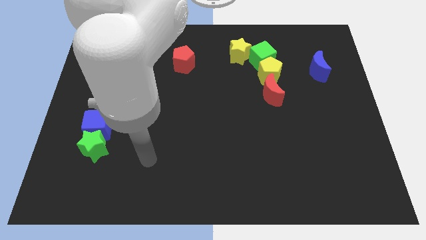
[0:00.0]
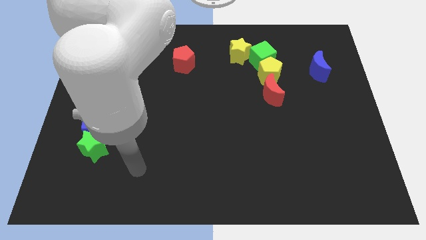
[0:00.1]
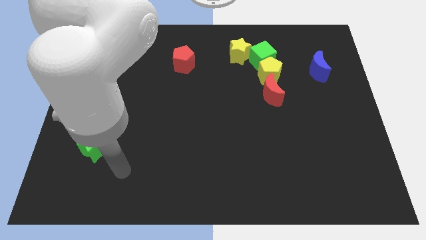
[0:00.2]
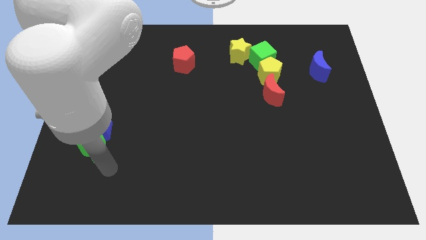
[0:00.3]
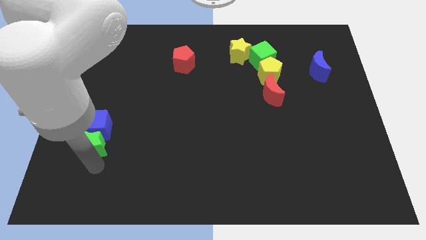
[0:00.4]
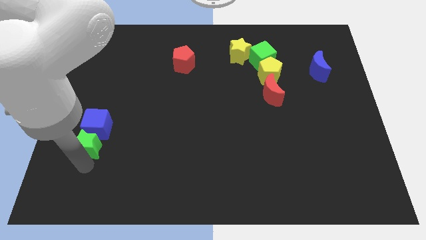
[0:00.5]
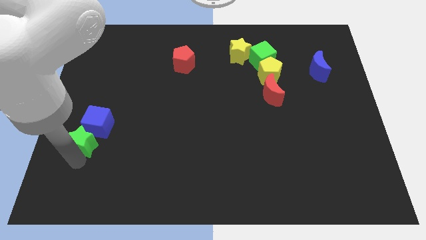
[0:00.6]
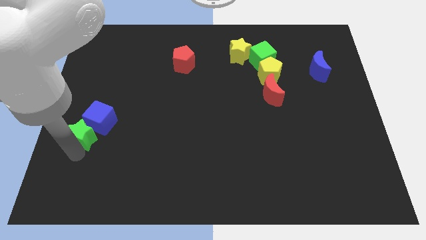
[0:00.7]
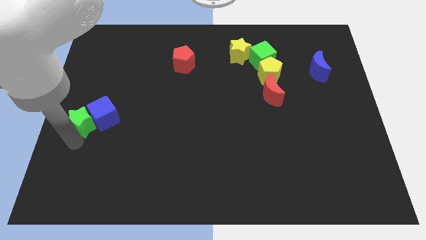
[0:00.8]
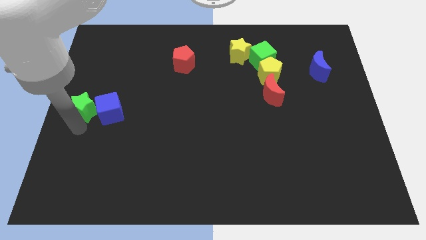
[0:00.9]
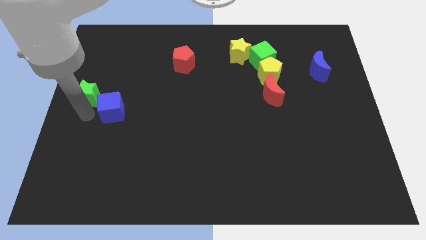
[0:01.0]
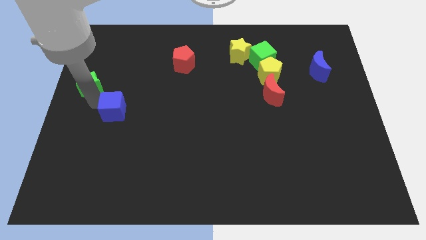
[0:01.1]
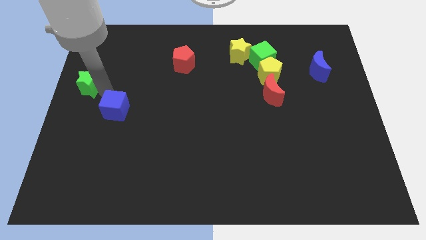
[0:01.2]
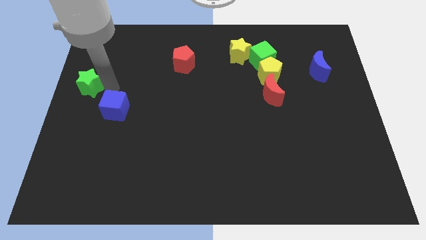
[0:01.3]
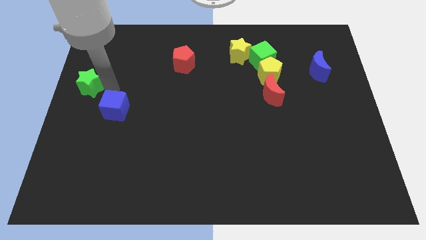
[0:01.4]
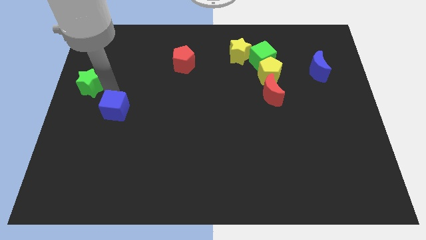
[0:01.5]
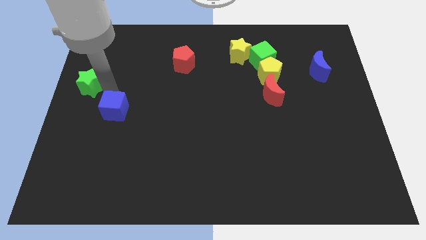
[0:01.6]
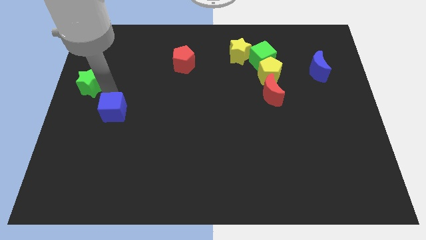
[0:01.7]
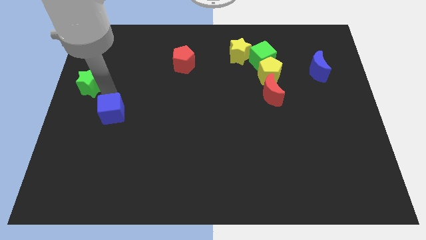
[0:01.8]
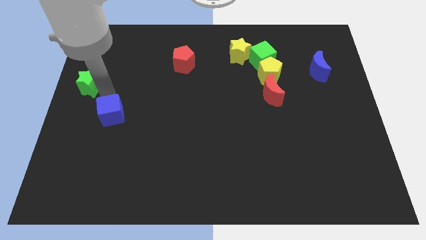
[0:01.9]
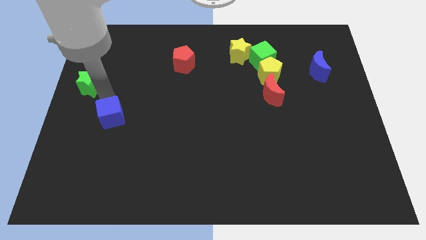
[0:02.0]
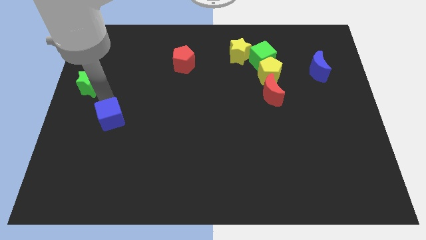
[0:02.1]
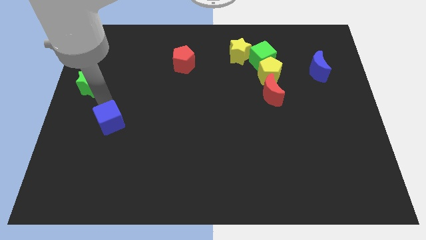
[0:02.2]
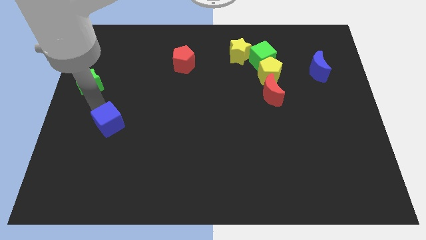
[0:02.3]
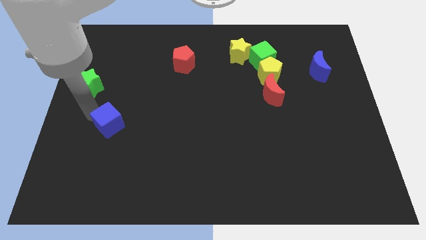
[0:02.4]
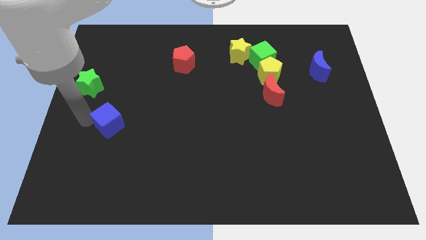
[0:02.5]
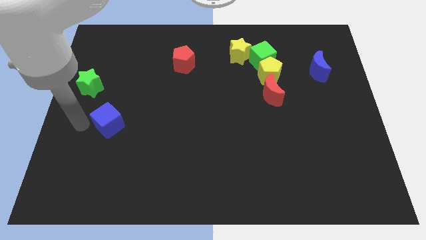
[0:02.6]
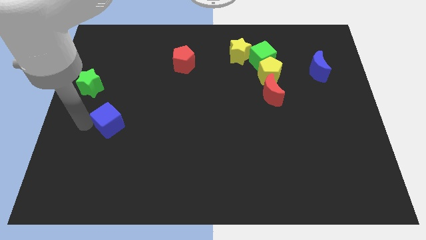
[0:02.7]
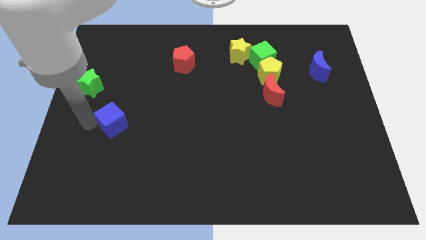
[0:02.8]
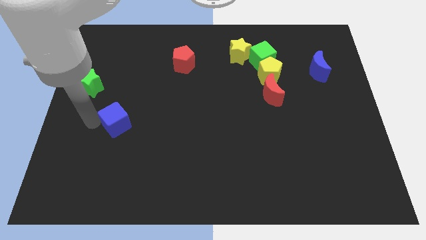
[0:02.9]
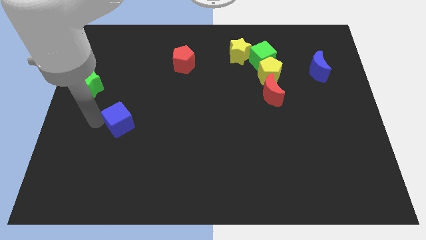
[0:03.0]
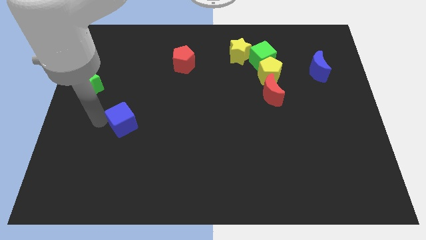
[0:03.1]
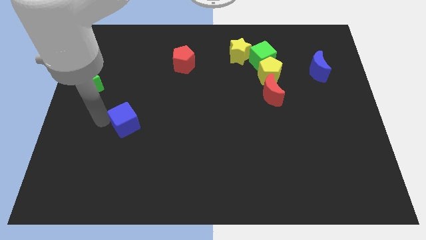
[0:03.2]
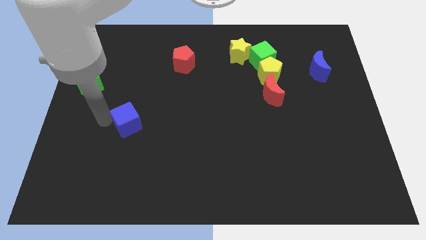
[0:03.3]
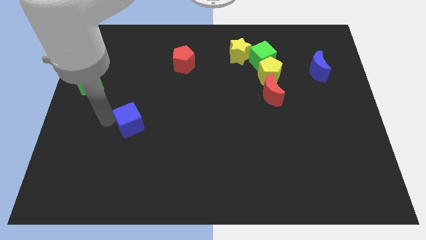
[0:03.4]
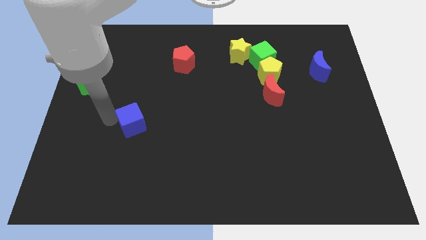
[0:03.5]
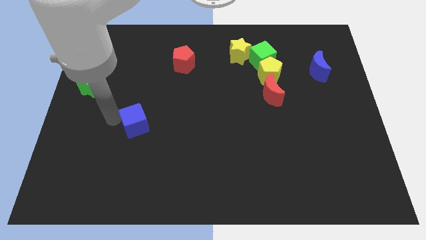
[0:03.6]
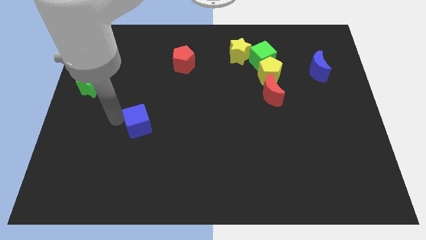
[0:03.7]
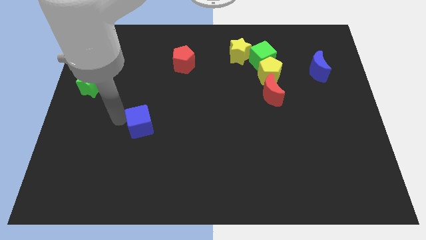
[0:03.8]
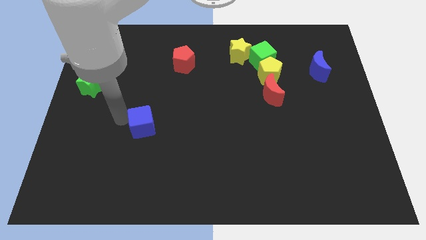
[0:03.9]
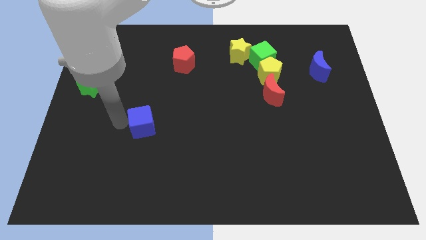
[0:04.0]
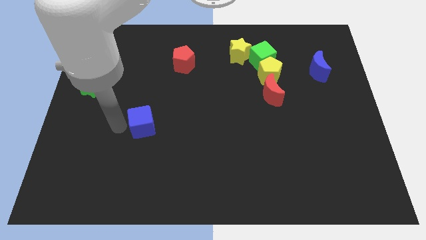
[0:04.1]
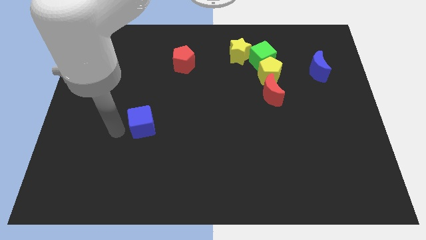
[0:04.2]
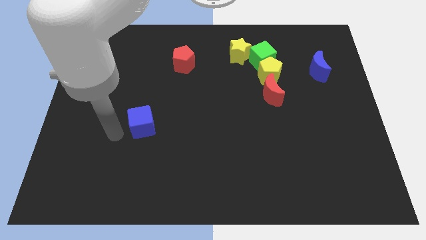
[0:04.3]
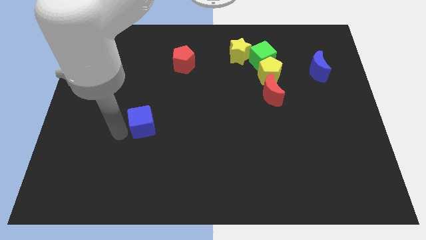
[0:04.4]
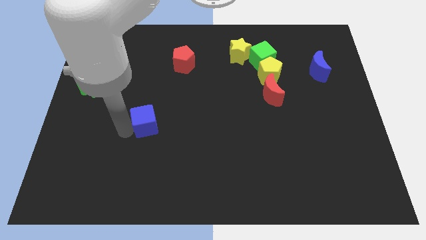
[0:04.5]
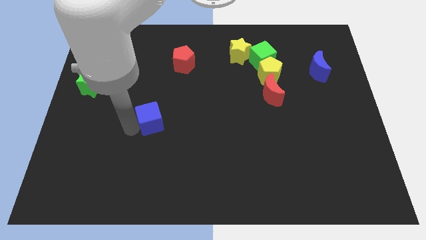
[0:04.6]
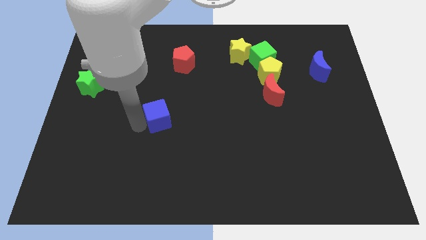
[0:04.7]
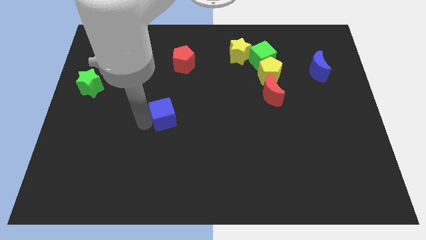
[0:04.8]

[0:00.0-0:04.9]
push the blue cube to the middle of the board

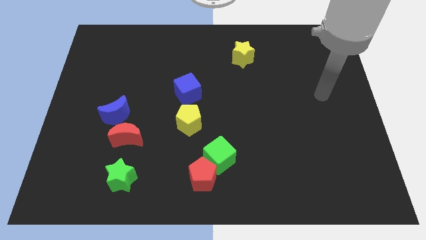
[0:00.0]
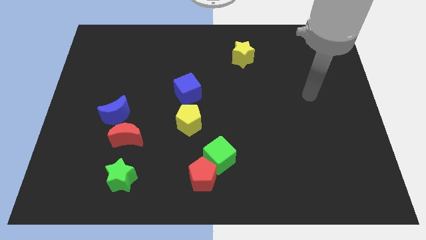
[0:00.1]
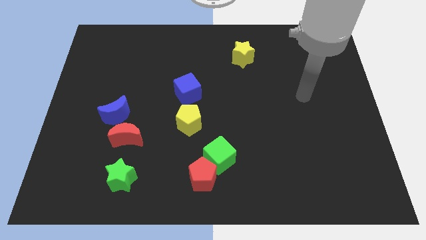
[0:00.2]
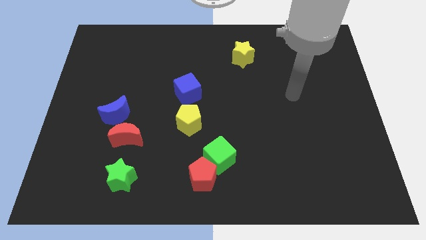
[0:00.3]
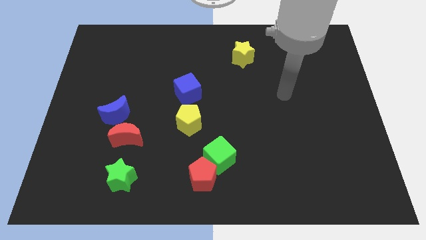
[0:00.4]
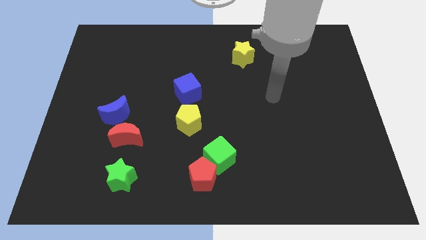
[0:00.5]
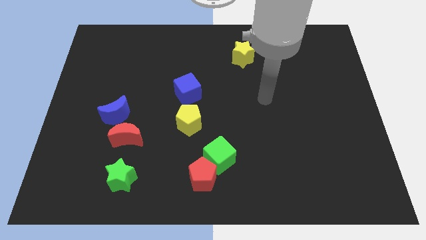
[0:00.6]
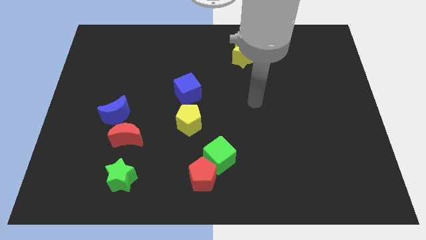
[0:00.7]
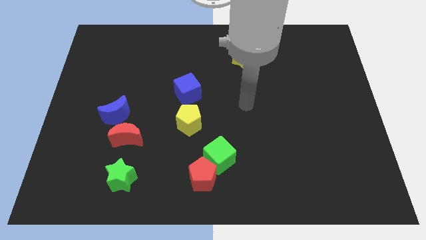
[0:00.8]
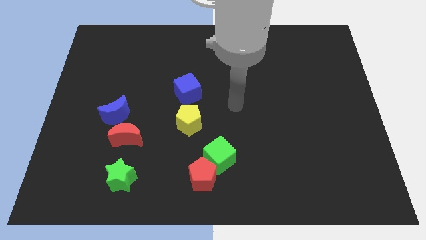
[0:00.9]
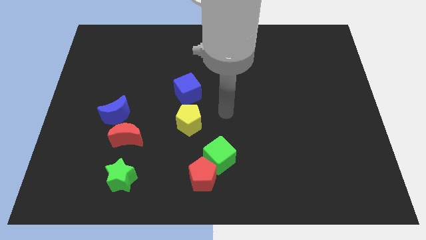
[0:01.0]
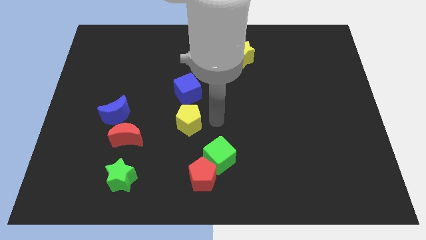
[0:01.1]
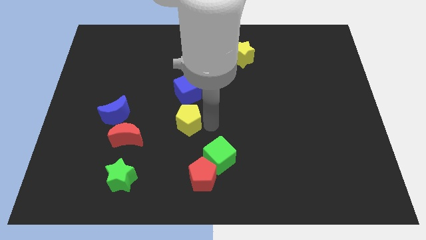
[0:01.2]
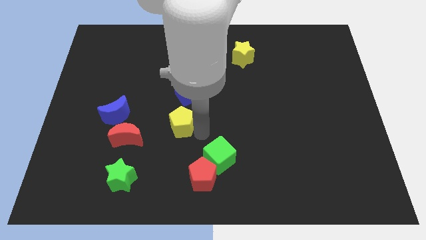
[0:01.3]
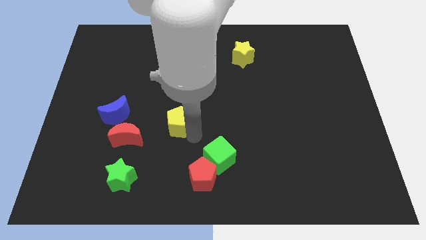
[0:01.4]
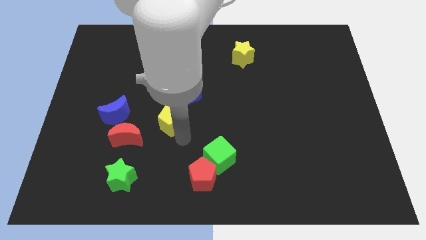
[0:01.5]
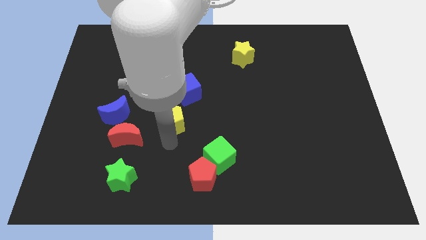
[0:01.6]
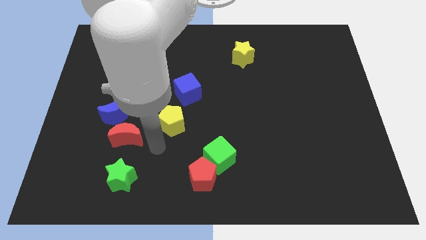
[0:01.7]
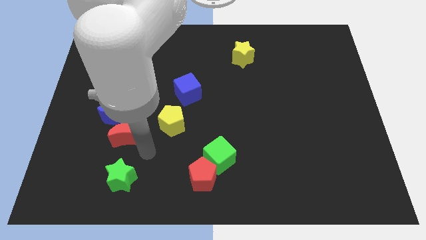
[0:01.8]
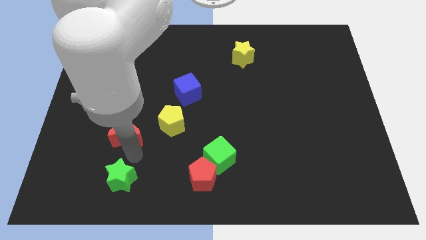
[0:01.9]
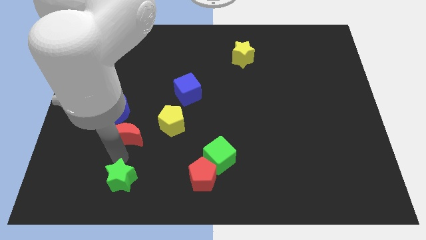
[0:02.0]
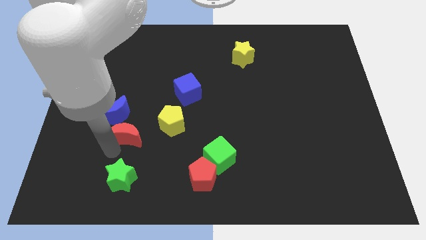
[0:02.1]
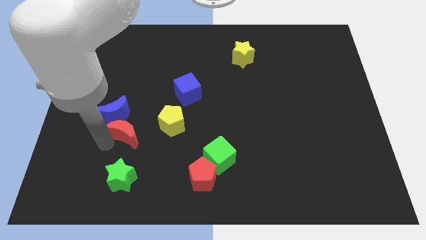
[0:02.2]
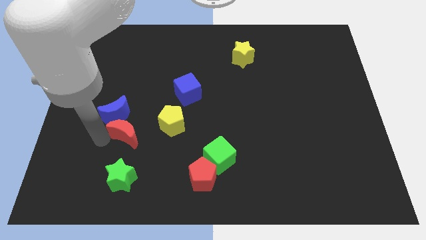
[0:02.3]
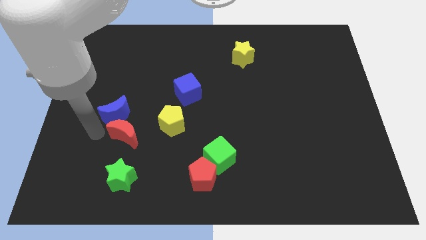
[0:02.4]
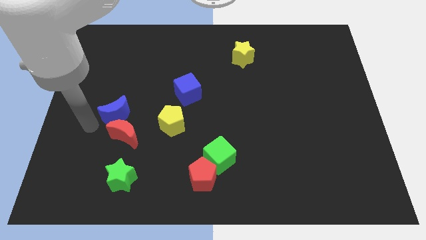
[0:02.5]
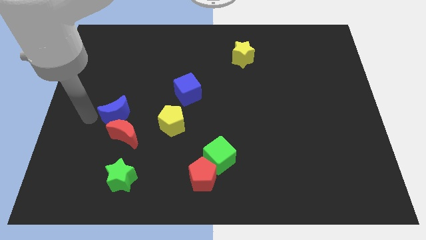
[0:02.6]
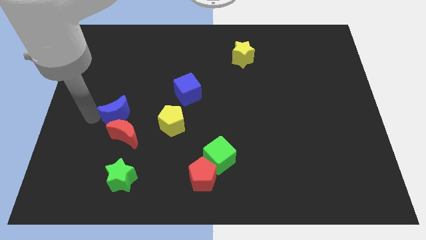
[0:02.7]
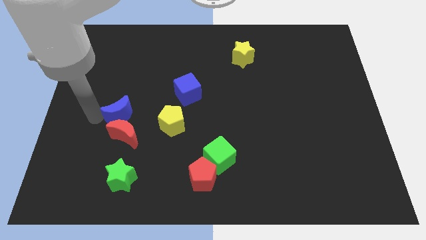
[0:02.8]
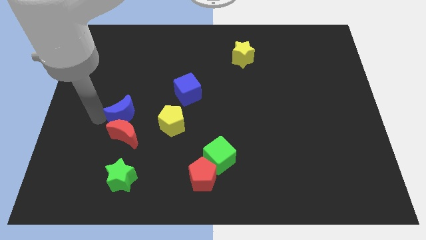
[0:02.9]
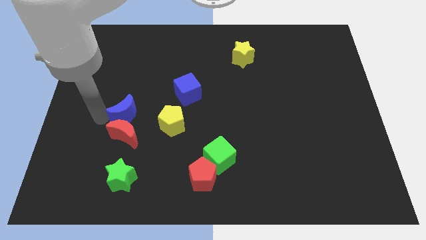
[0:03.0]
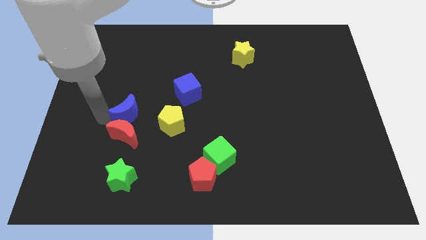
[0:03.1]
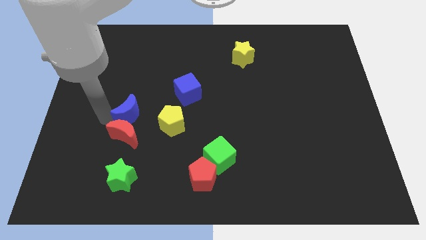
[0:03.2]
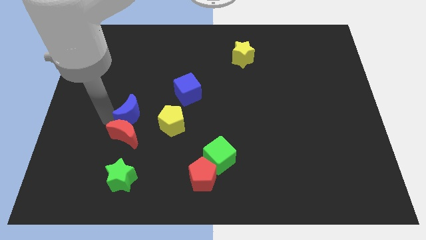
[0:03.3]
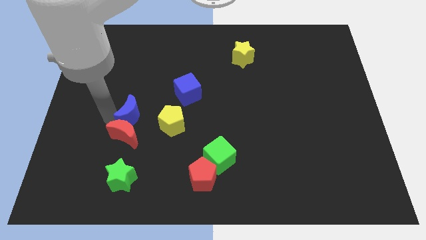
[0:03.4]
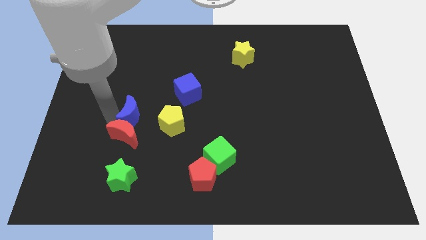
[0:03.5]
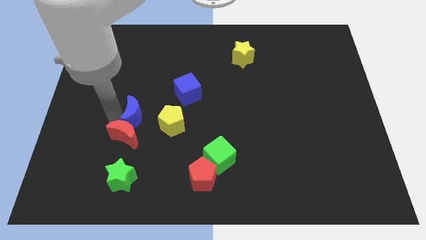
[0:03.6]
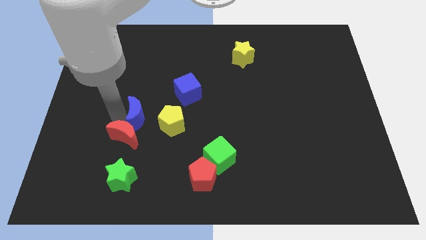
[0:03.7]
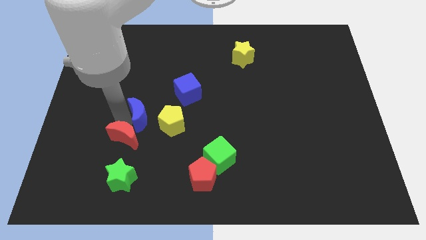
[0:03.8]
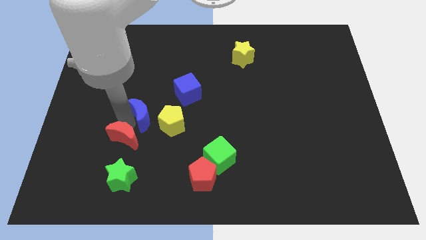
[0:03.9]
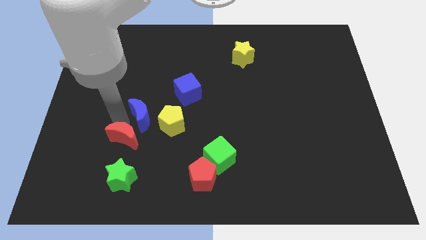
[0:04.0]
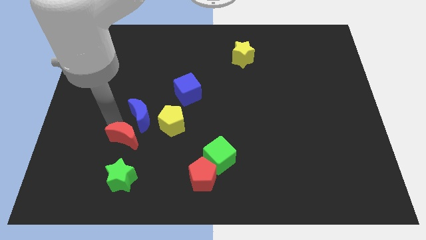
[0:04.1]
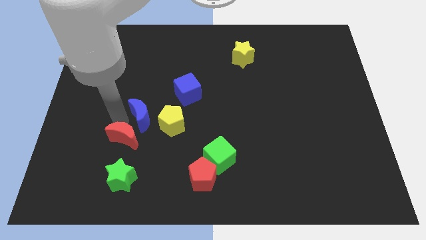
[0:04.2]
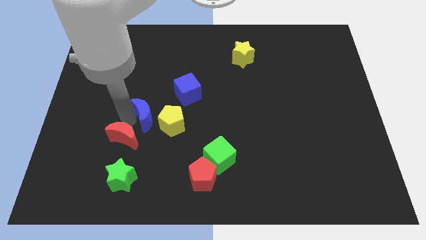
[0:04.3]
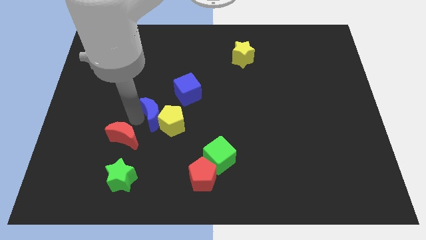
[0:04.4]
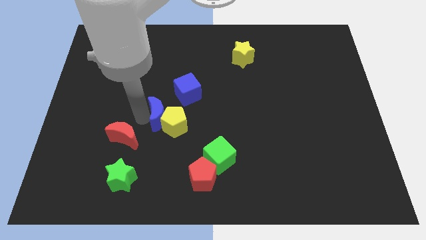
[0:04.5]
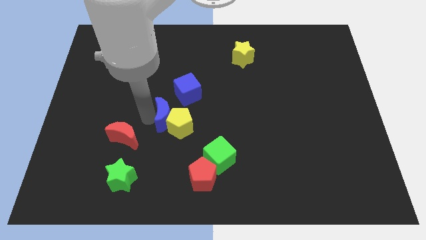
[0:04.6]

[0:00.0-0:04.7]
slide the blue moon to the center of the board
